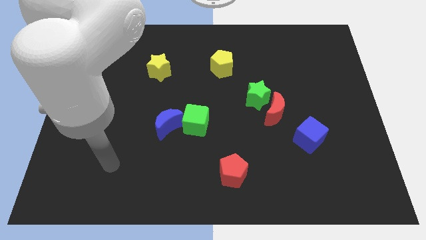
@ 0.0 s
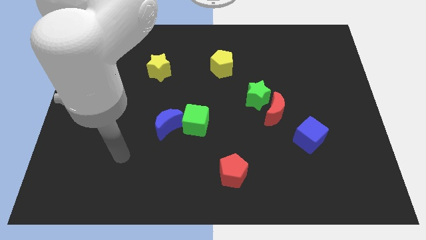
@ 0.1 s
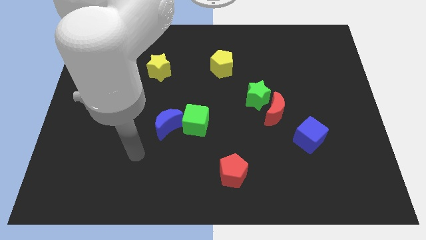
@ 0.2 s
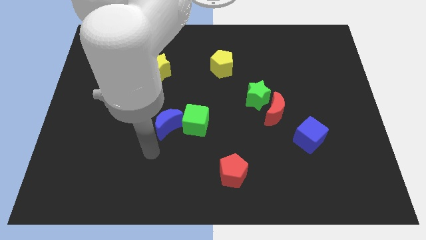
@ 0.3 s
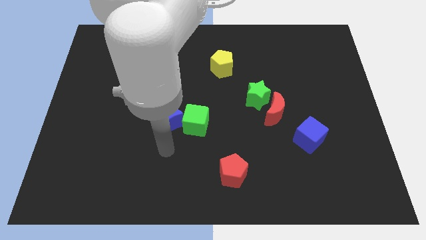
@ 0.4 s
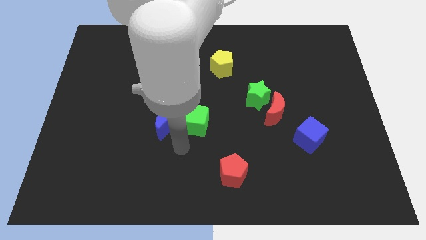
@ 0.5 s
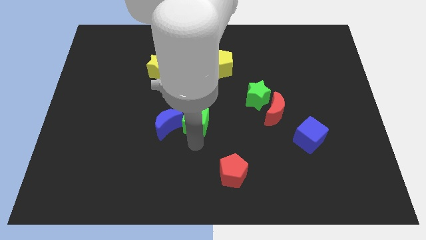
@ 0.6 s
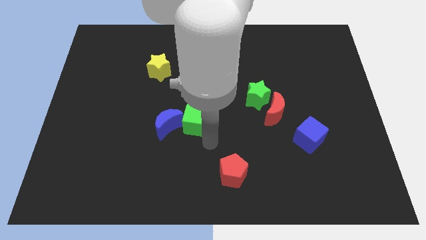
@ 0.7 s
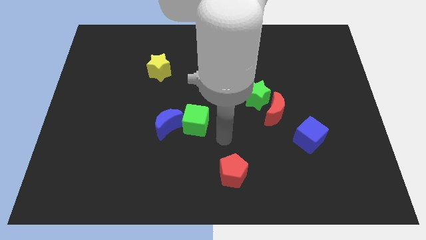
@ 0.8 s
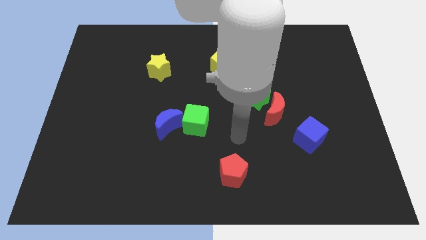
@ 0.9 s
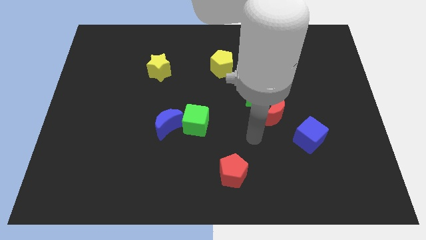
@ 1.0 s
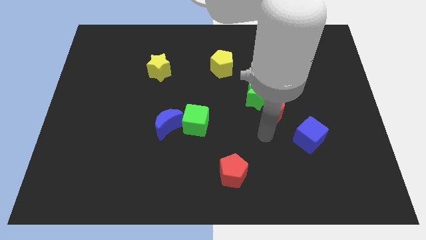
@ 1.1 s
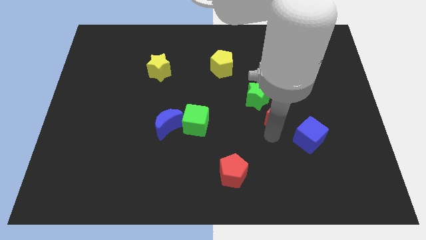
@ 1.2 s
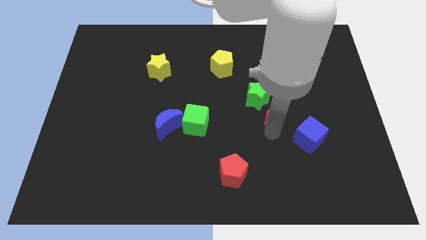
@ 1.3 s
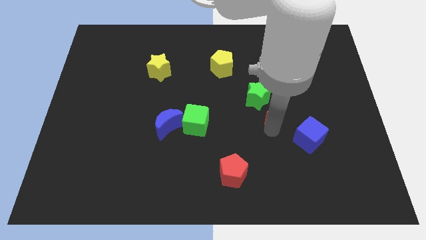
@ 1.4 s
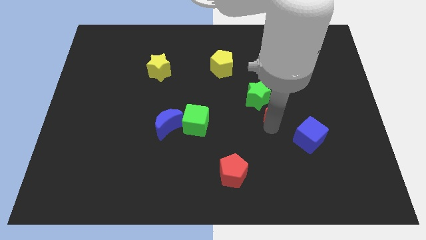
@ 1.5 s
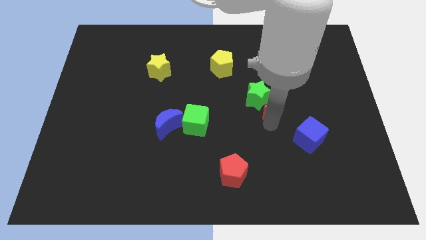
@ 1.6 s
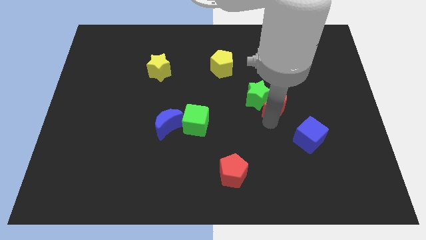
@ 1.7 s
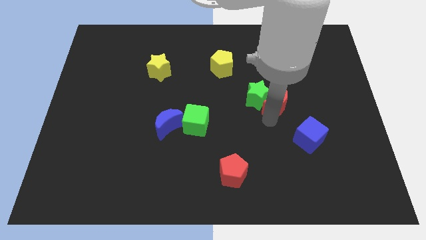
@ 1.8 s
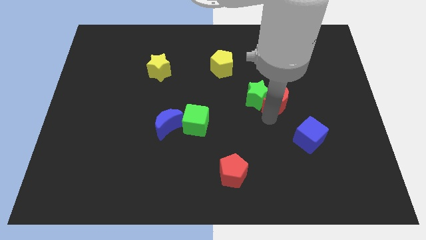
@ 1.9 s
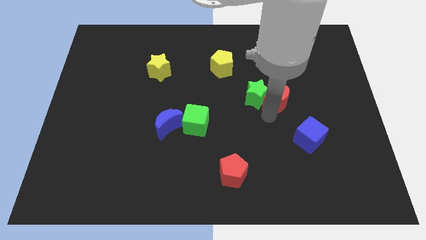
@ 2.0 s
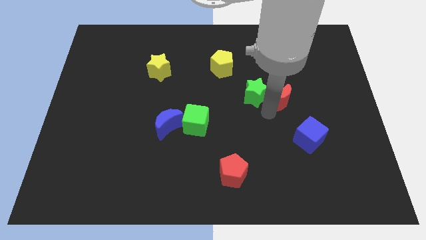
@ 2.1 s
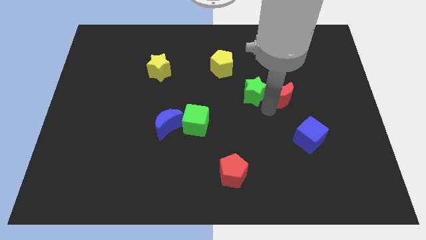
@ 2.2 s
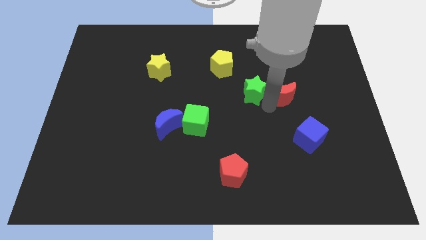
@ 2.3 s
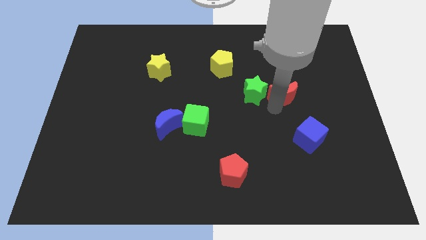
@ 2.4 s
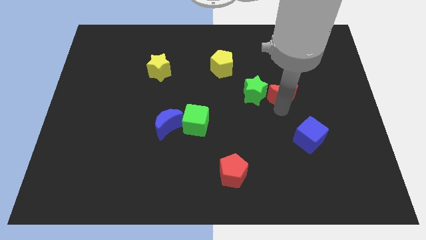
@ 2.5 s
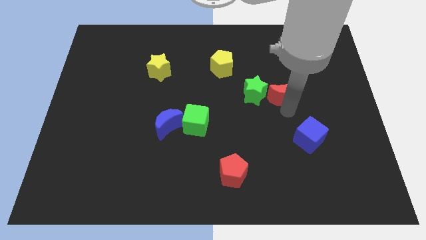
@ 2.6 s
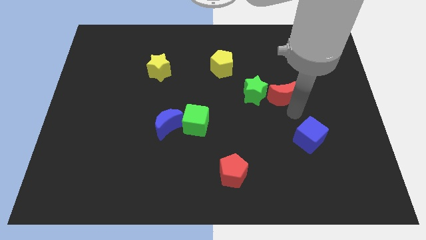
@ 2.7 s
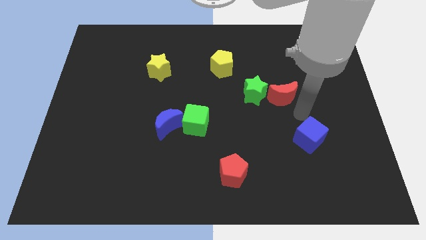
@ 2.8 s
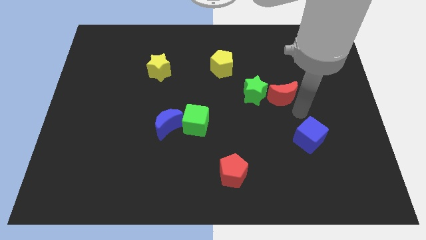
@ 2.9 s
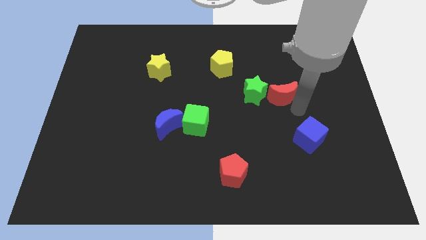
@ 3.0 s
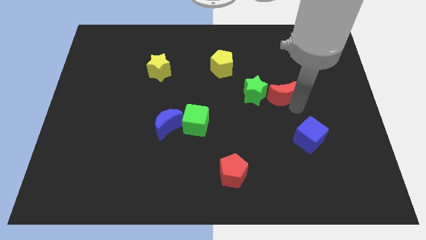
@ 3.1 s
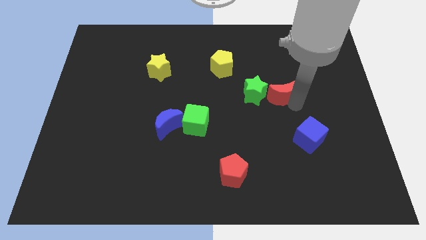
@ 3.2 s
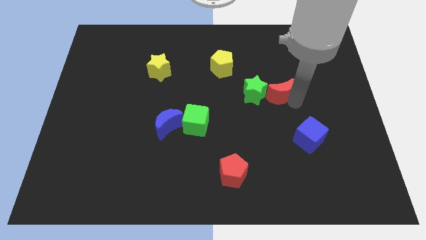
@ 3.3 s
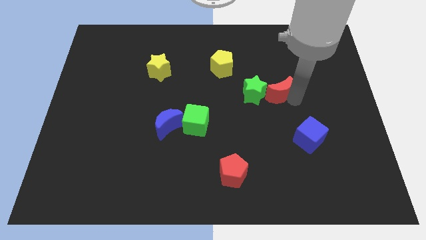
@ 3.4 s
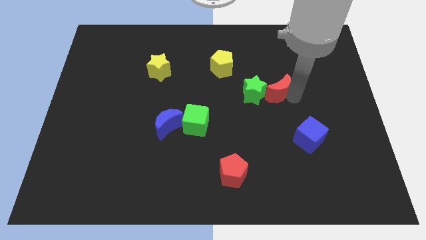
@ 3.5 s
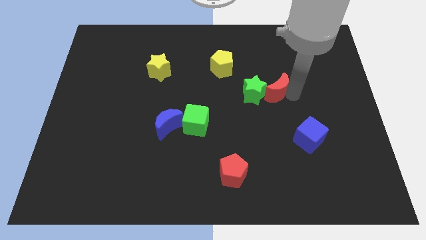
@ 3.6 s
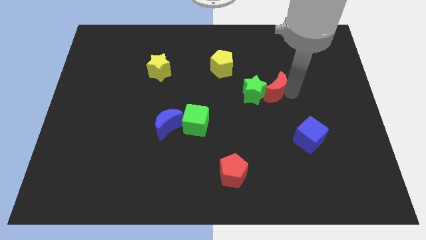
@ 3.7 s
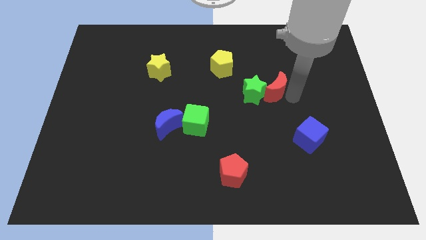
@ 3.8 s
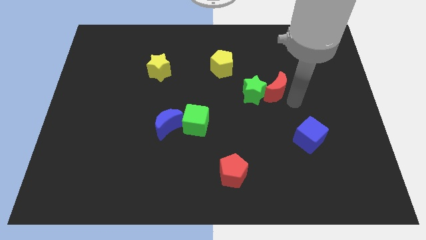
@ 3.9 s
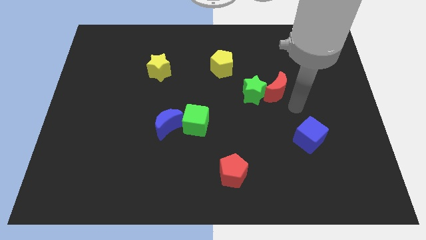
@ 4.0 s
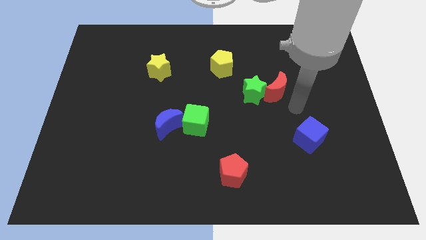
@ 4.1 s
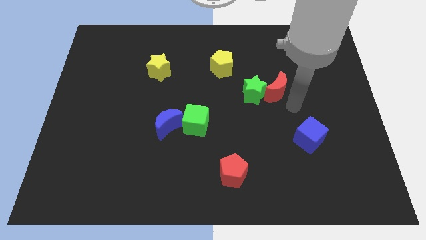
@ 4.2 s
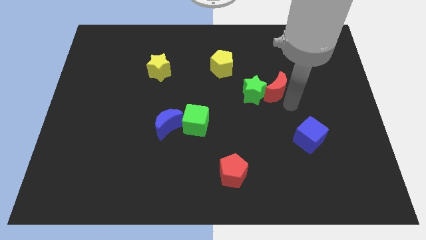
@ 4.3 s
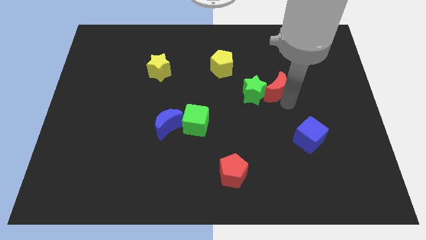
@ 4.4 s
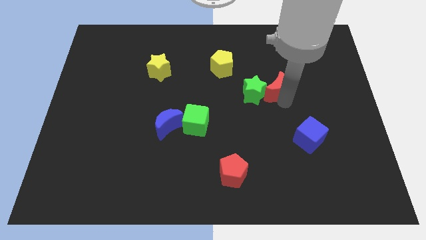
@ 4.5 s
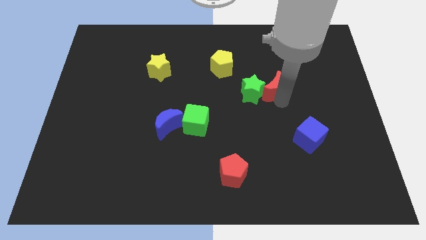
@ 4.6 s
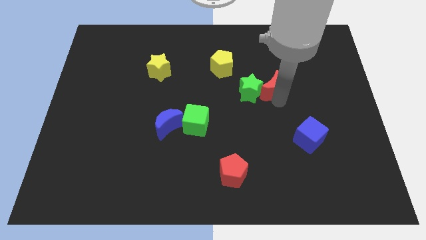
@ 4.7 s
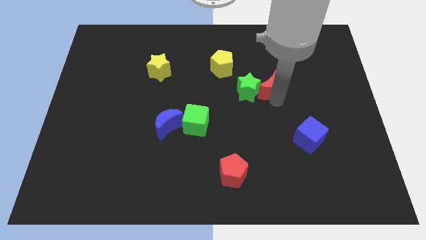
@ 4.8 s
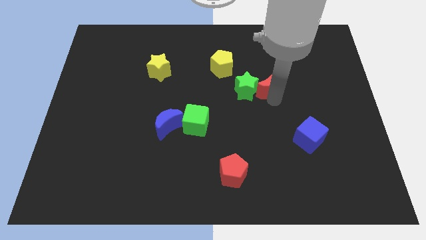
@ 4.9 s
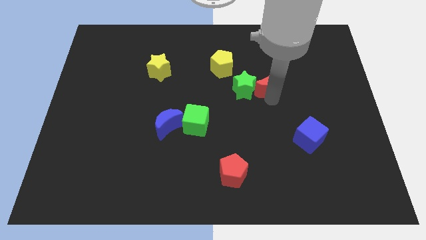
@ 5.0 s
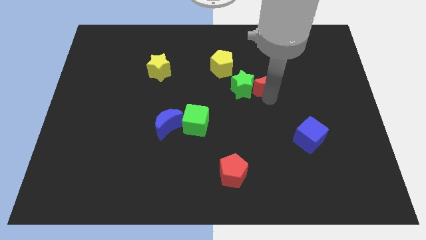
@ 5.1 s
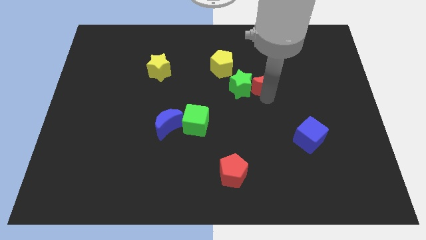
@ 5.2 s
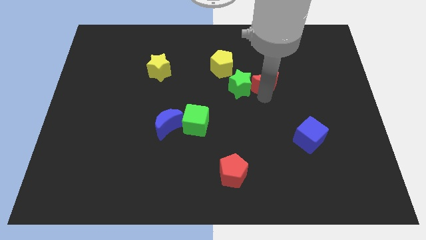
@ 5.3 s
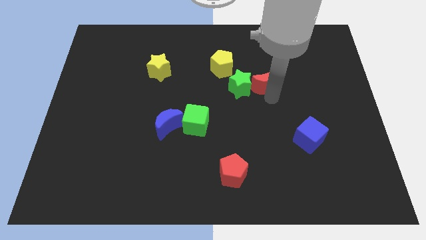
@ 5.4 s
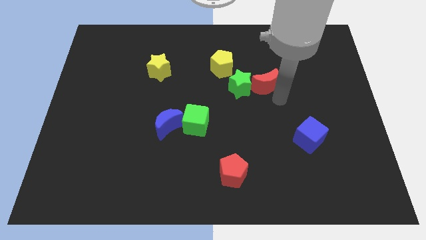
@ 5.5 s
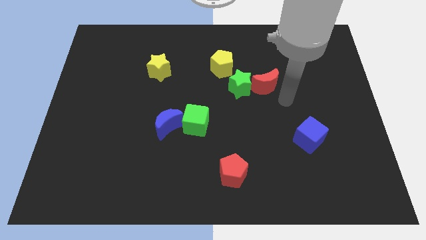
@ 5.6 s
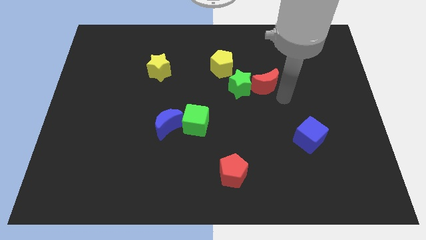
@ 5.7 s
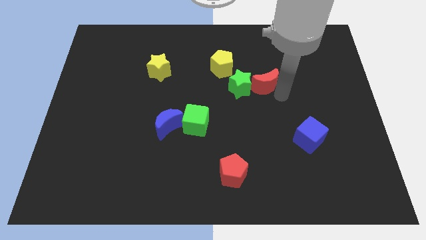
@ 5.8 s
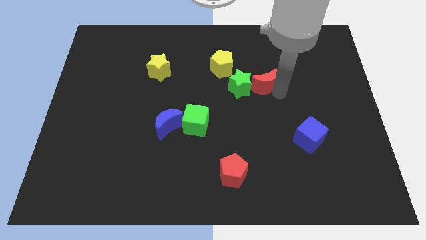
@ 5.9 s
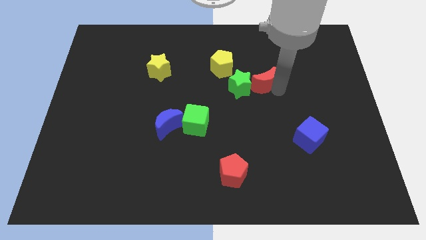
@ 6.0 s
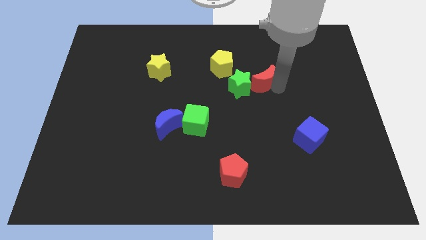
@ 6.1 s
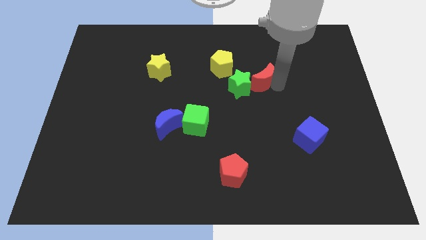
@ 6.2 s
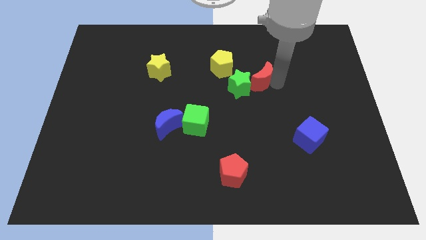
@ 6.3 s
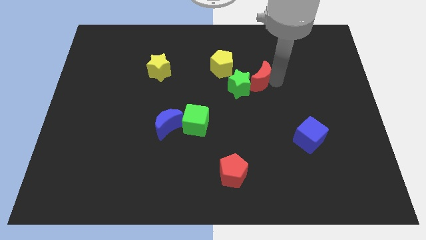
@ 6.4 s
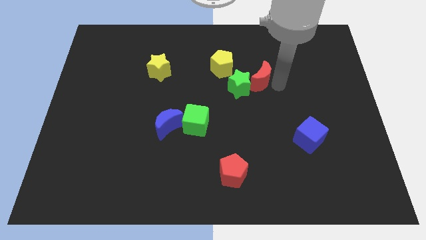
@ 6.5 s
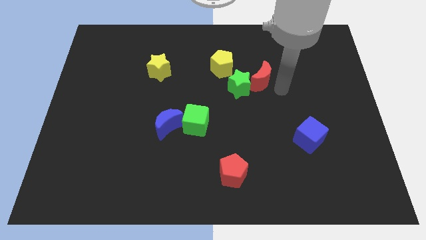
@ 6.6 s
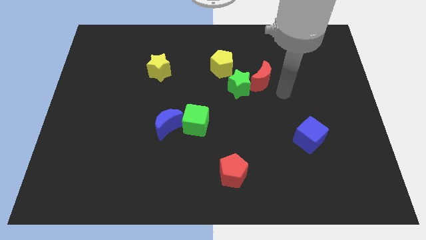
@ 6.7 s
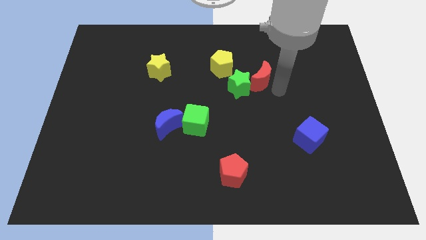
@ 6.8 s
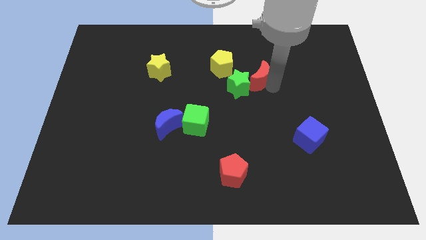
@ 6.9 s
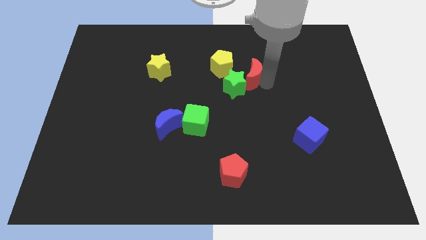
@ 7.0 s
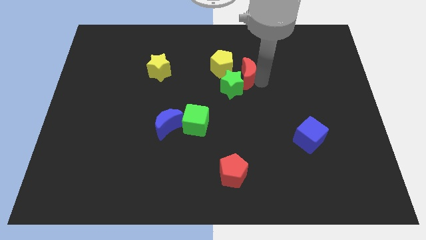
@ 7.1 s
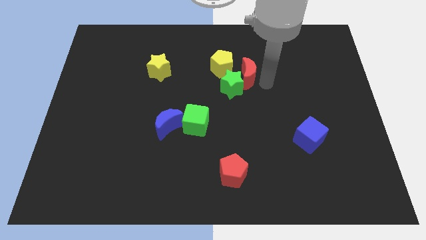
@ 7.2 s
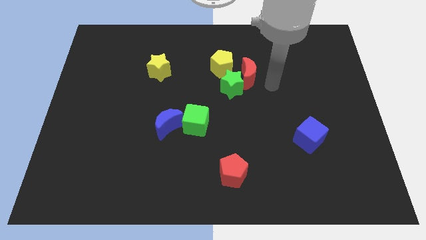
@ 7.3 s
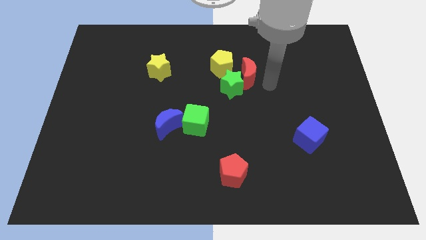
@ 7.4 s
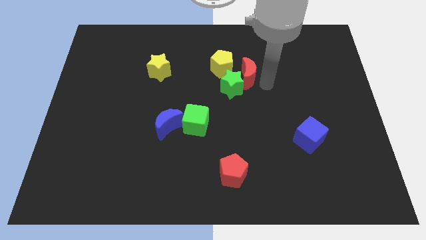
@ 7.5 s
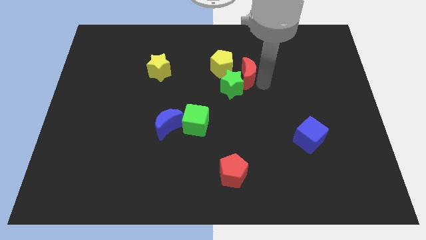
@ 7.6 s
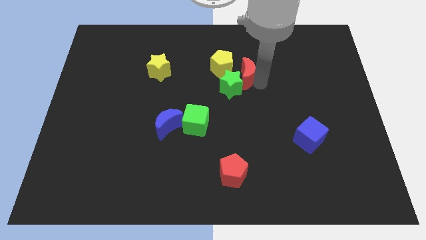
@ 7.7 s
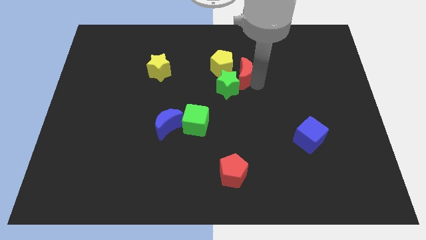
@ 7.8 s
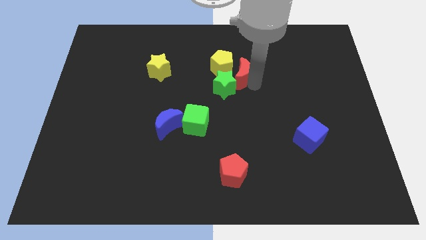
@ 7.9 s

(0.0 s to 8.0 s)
move the red moon to the yellow pentagon
